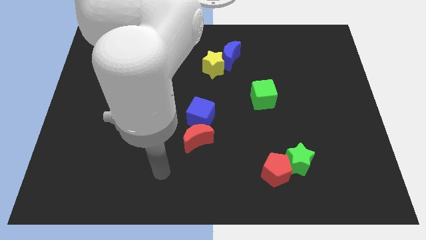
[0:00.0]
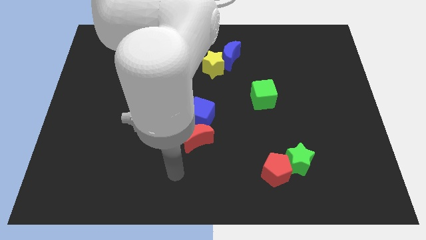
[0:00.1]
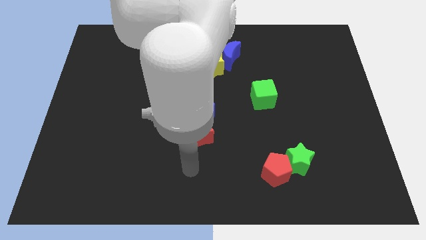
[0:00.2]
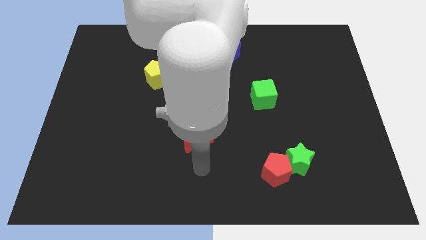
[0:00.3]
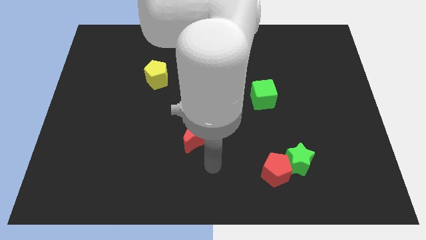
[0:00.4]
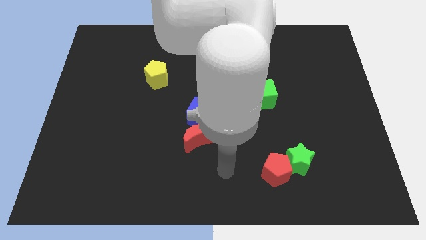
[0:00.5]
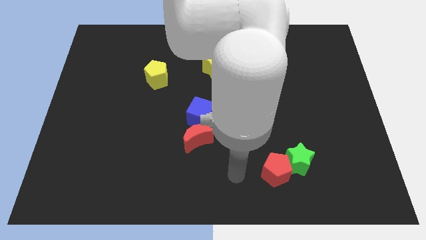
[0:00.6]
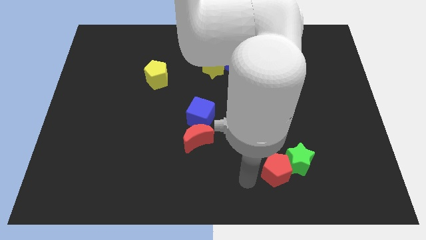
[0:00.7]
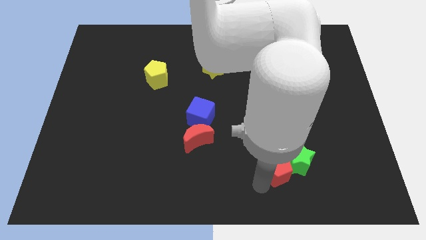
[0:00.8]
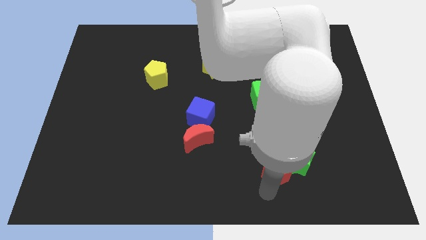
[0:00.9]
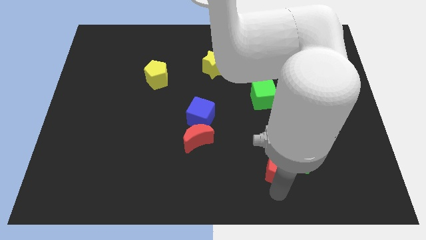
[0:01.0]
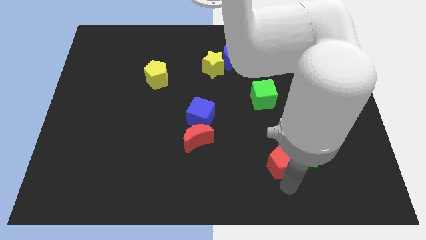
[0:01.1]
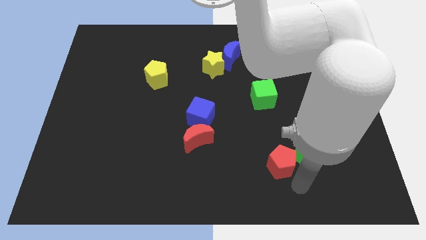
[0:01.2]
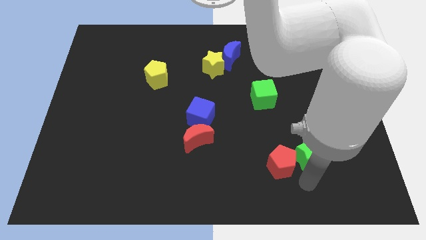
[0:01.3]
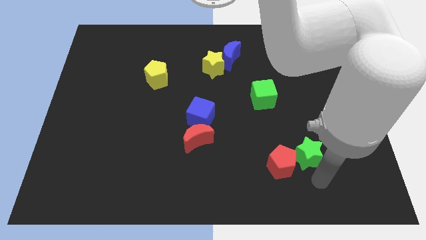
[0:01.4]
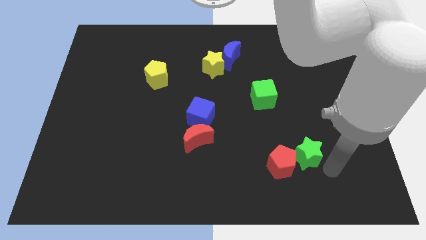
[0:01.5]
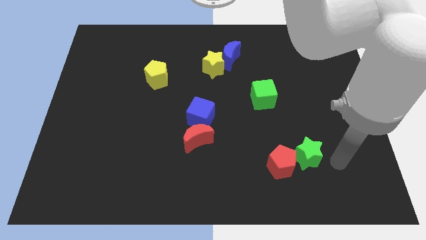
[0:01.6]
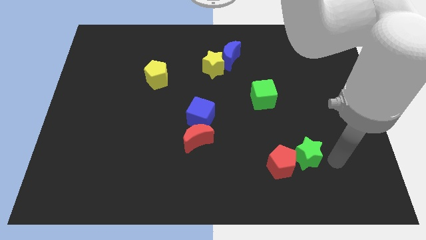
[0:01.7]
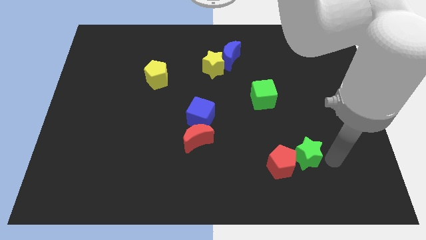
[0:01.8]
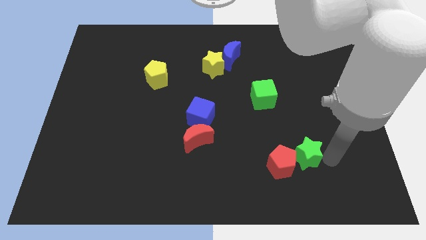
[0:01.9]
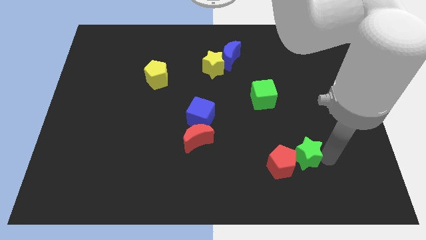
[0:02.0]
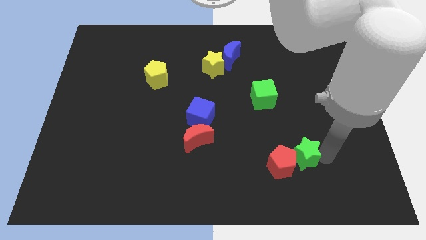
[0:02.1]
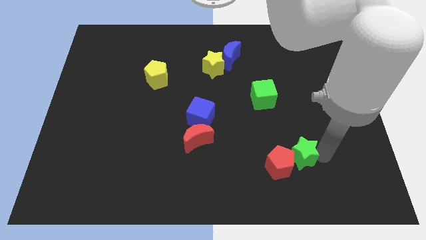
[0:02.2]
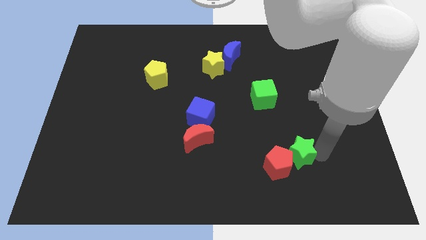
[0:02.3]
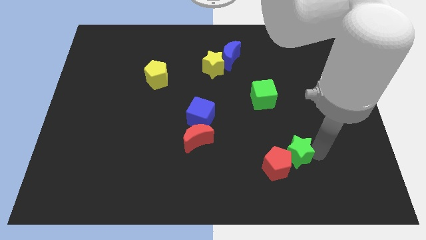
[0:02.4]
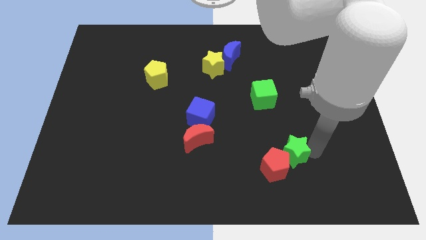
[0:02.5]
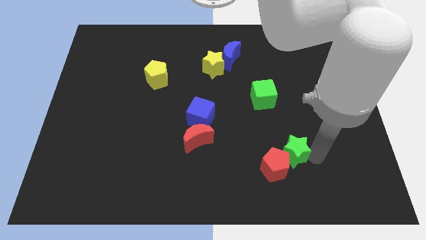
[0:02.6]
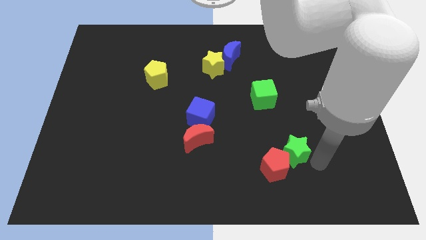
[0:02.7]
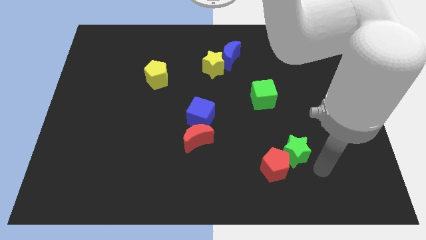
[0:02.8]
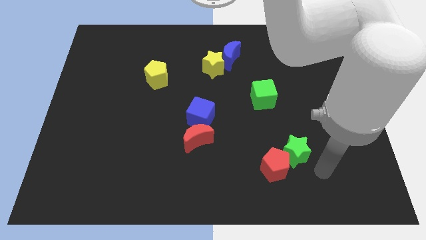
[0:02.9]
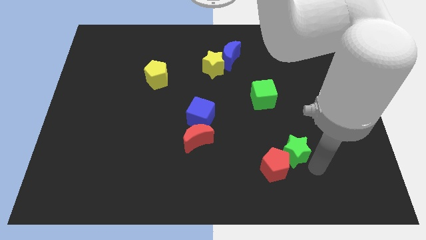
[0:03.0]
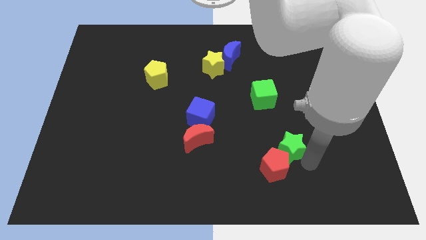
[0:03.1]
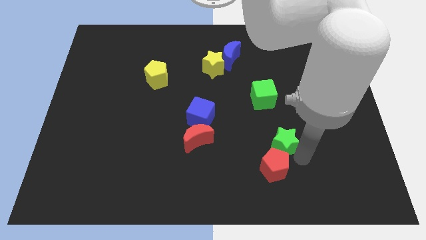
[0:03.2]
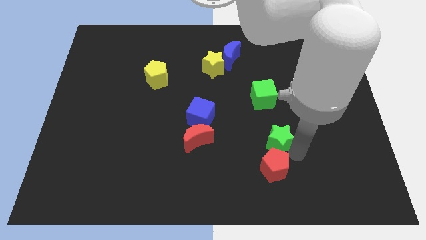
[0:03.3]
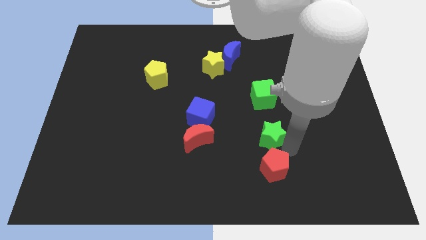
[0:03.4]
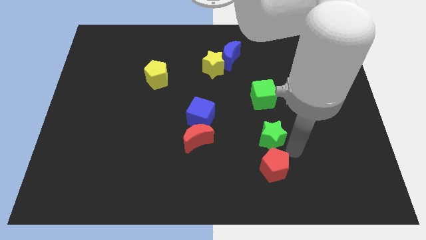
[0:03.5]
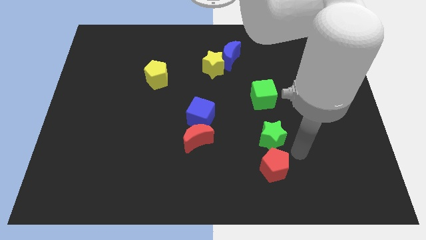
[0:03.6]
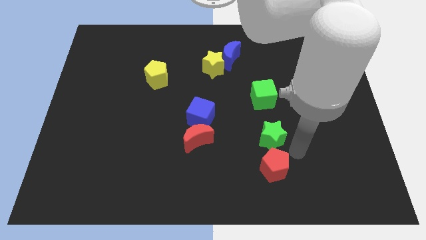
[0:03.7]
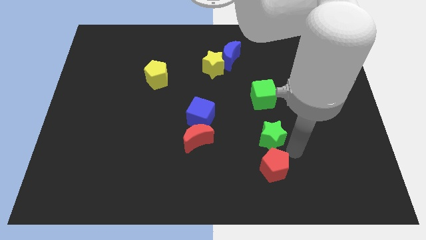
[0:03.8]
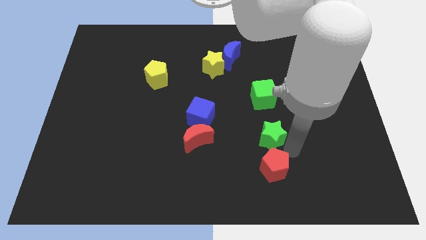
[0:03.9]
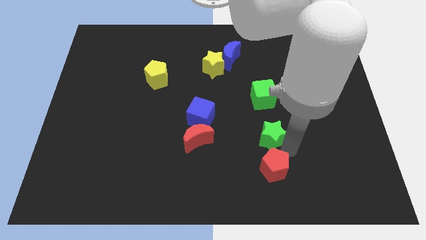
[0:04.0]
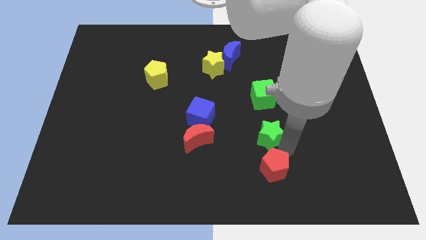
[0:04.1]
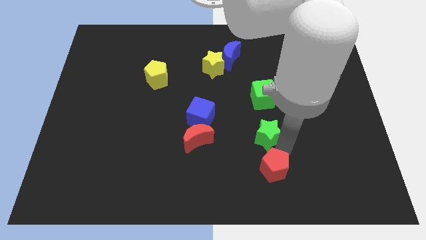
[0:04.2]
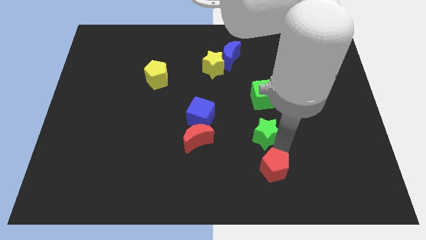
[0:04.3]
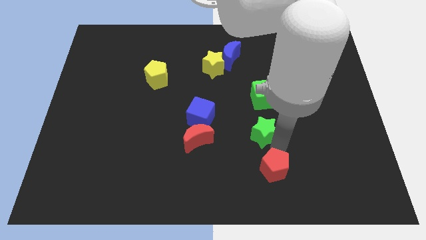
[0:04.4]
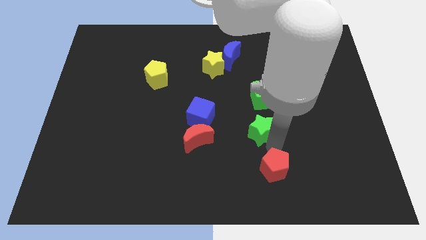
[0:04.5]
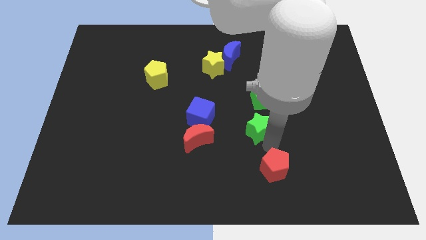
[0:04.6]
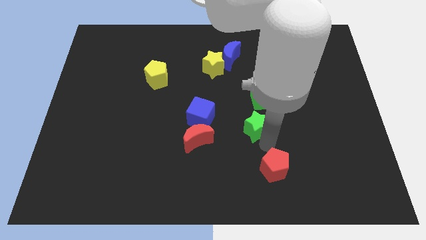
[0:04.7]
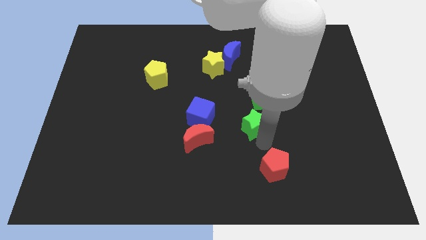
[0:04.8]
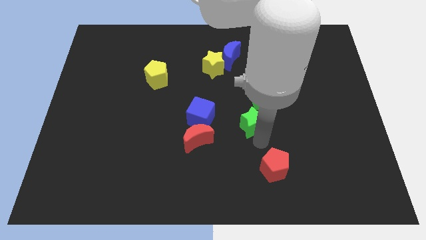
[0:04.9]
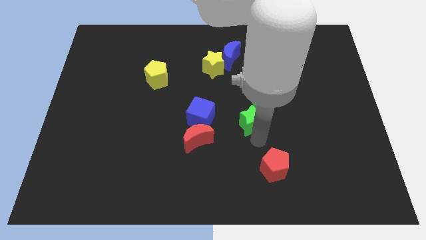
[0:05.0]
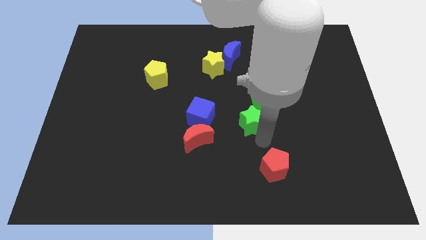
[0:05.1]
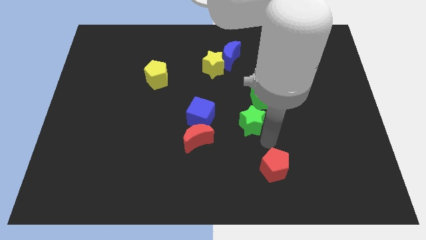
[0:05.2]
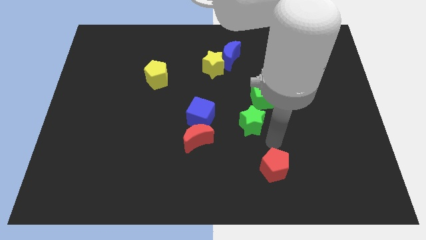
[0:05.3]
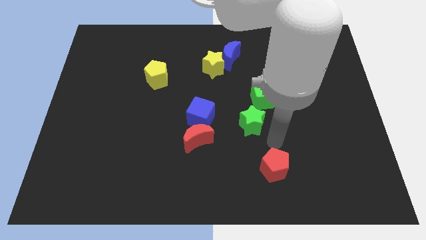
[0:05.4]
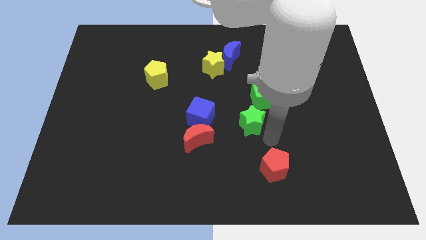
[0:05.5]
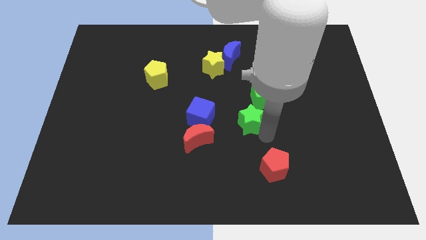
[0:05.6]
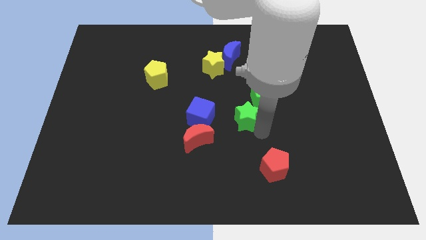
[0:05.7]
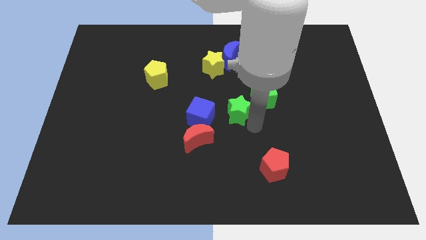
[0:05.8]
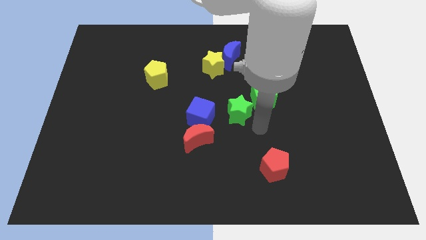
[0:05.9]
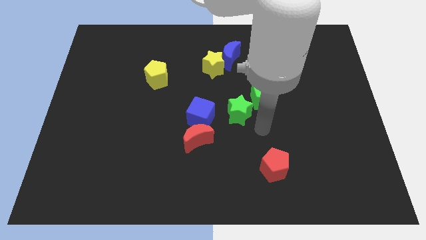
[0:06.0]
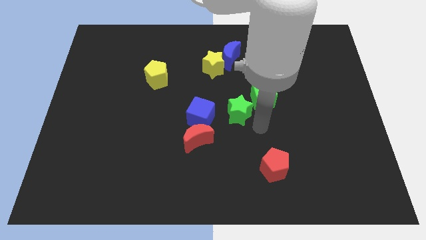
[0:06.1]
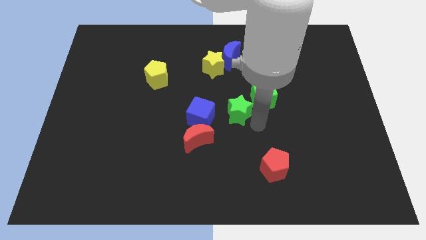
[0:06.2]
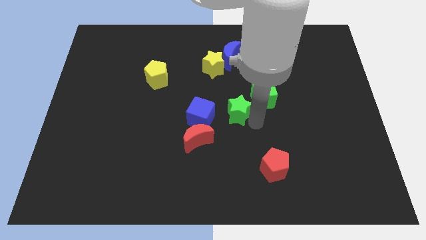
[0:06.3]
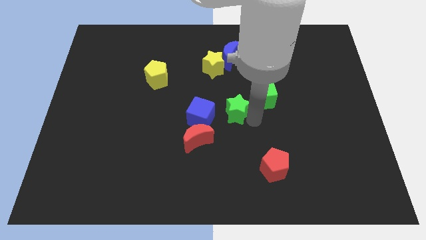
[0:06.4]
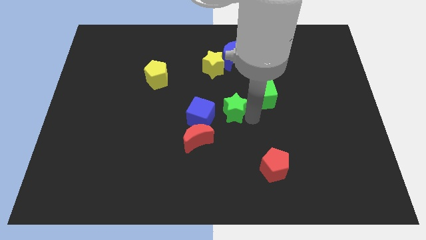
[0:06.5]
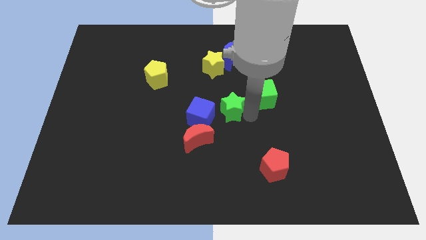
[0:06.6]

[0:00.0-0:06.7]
move the green star to the bottom side of the yellow star
